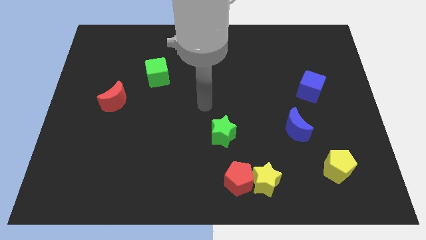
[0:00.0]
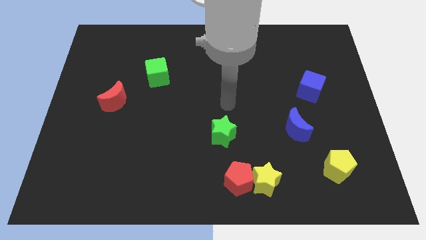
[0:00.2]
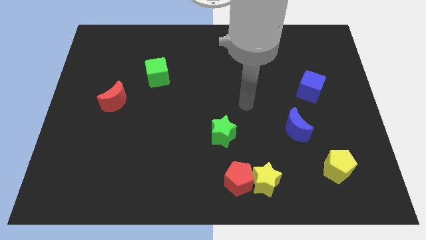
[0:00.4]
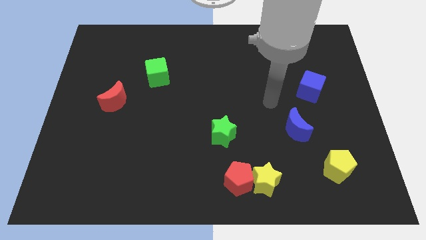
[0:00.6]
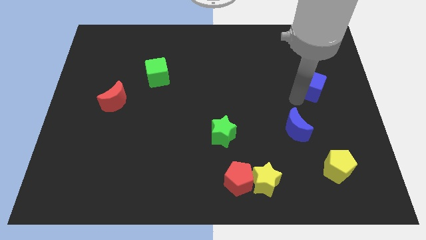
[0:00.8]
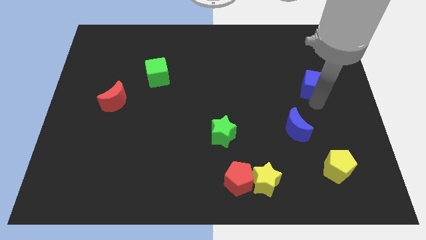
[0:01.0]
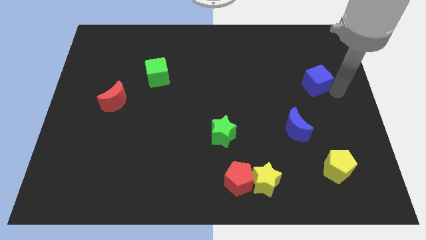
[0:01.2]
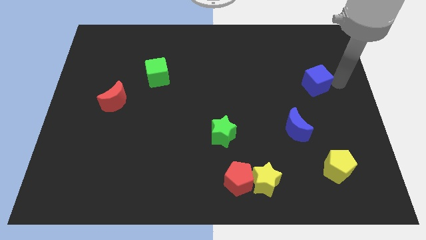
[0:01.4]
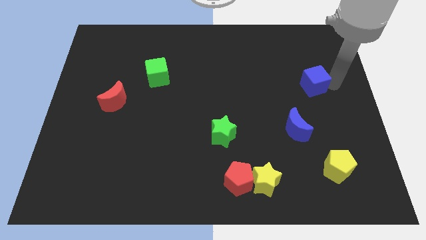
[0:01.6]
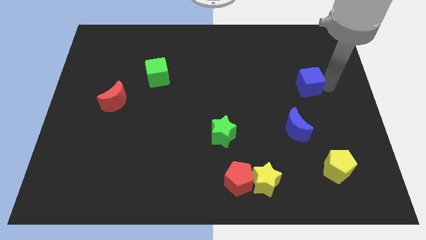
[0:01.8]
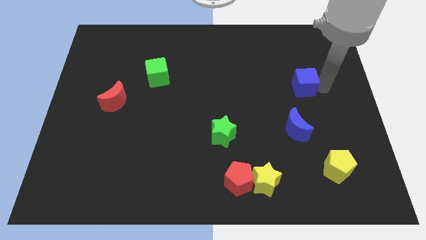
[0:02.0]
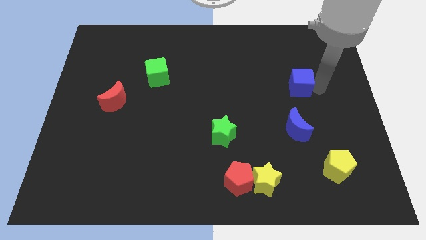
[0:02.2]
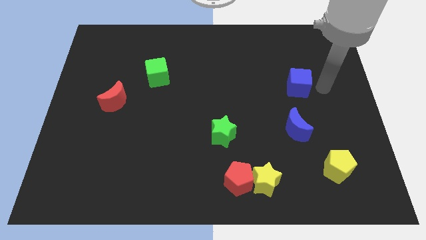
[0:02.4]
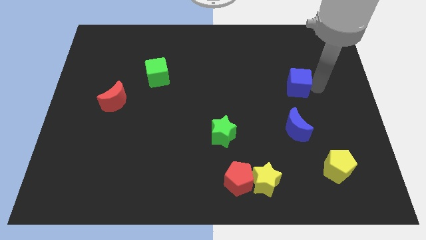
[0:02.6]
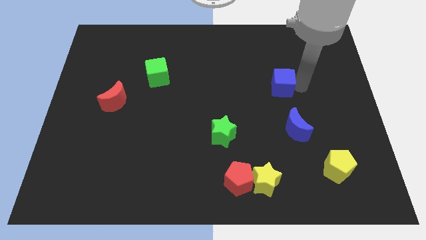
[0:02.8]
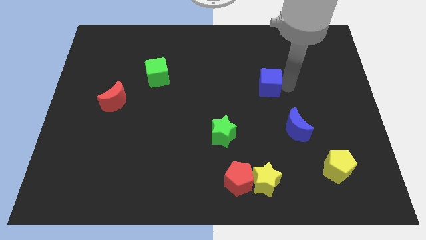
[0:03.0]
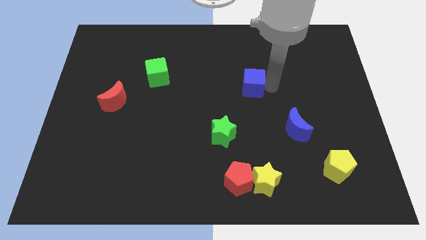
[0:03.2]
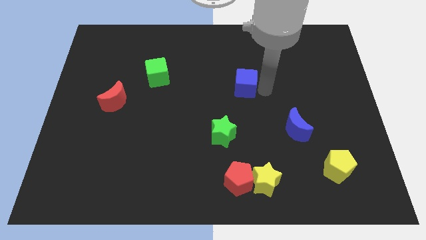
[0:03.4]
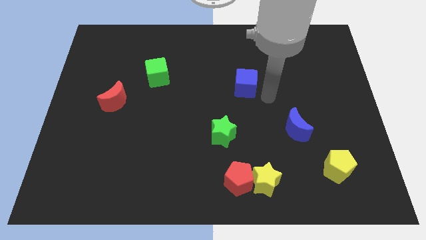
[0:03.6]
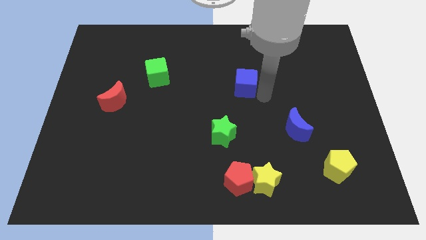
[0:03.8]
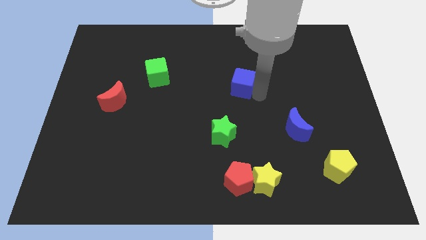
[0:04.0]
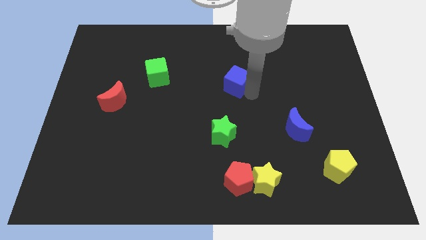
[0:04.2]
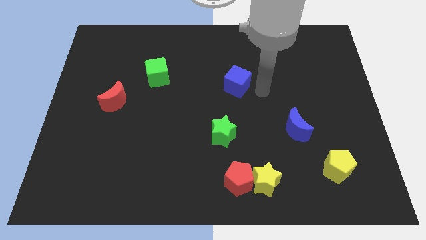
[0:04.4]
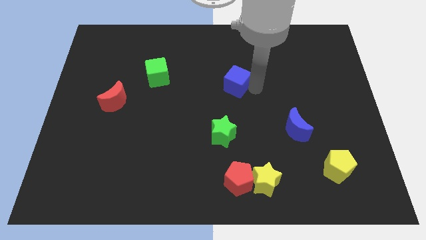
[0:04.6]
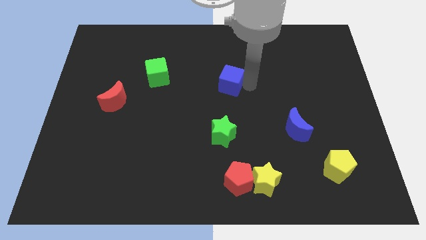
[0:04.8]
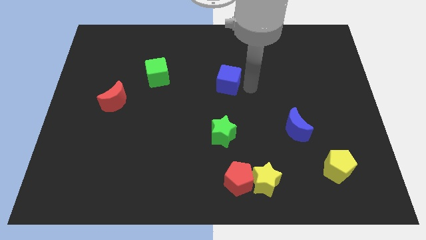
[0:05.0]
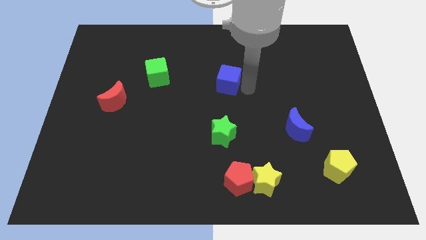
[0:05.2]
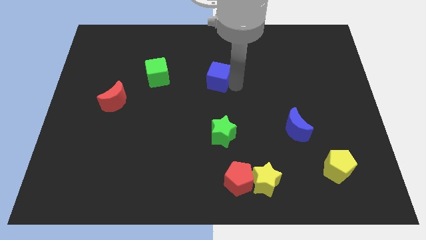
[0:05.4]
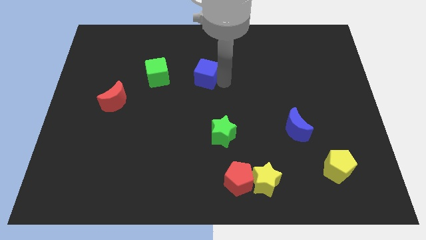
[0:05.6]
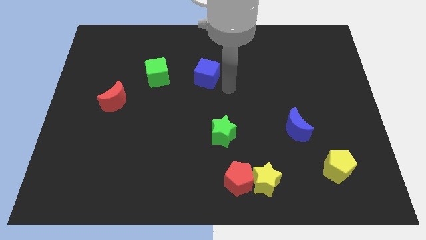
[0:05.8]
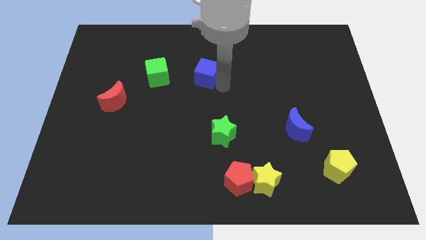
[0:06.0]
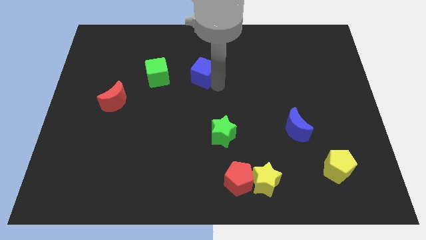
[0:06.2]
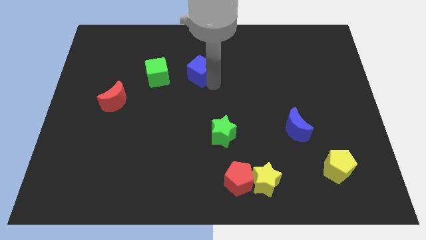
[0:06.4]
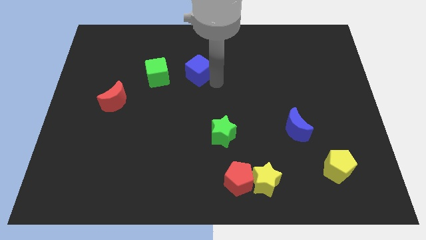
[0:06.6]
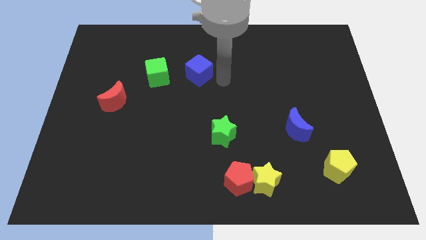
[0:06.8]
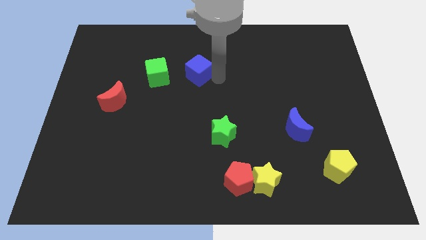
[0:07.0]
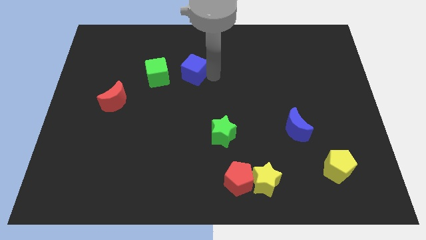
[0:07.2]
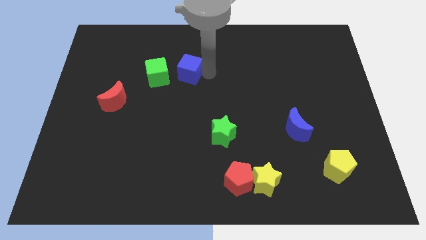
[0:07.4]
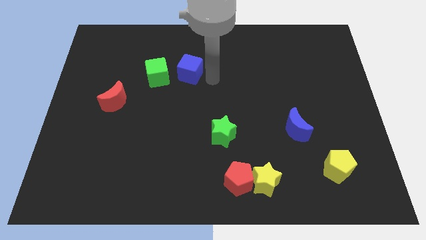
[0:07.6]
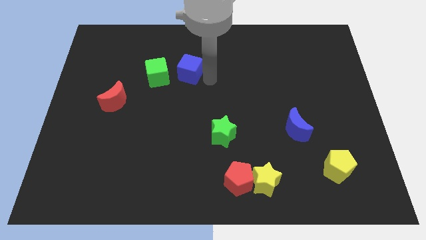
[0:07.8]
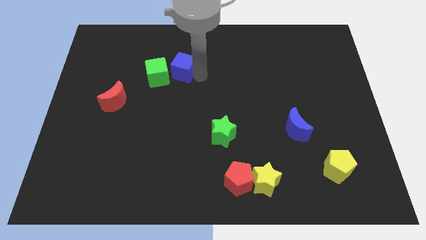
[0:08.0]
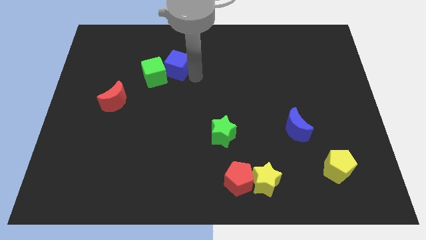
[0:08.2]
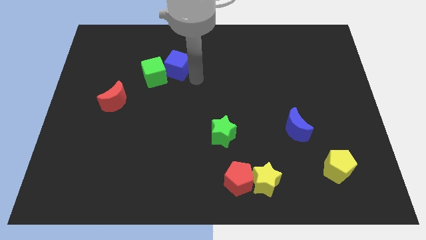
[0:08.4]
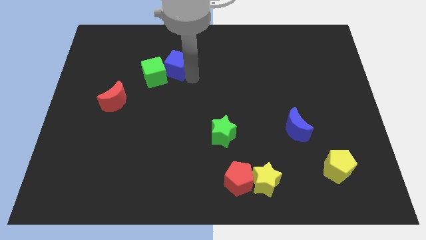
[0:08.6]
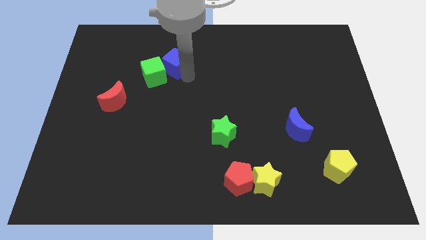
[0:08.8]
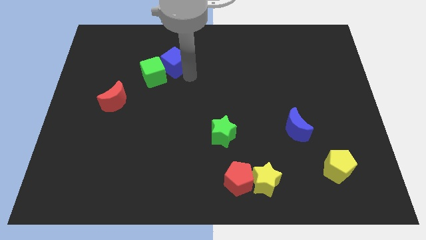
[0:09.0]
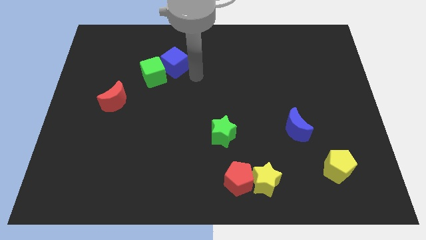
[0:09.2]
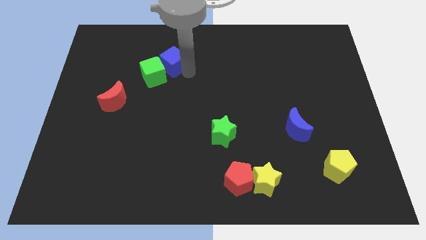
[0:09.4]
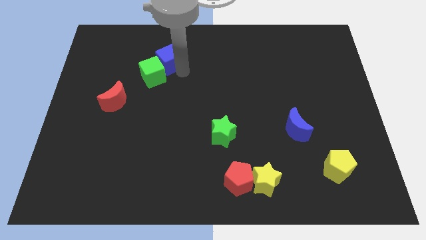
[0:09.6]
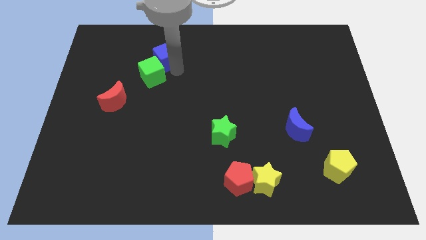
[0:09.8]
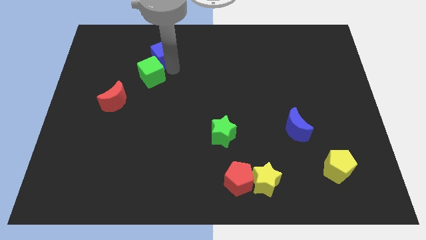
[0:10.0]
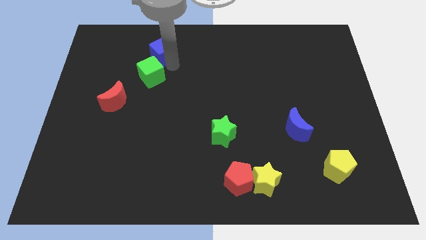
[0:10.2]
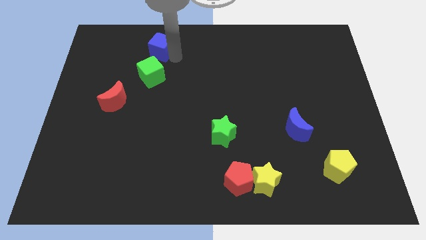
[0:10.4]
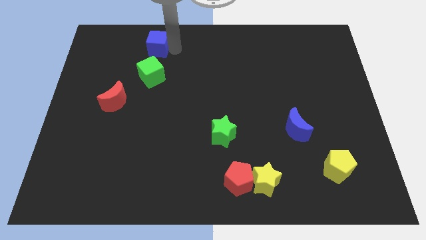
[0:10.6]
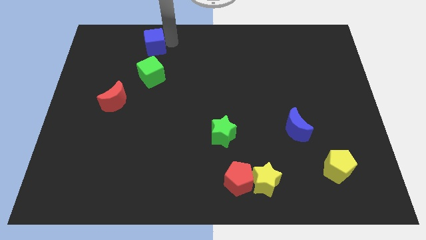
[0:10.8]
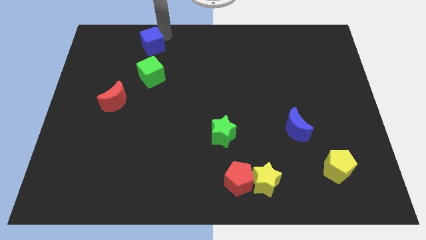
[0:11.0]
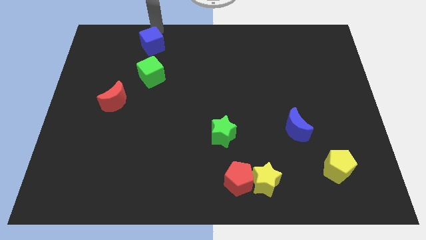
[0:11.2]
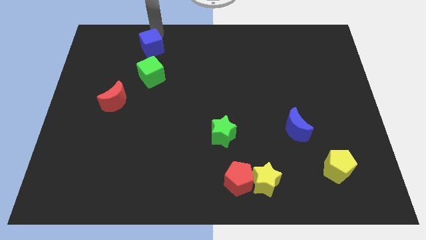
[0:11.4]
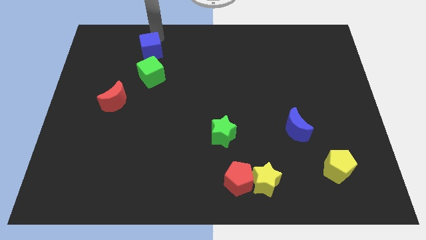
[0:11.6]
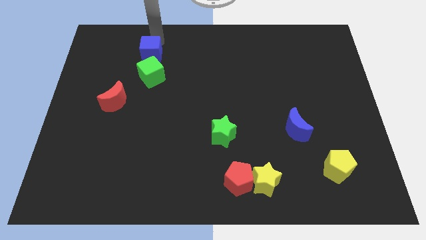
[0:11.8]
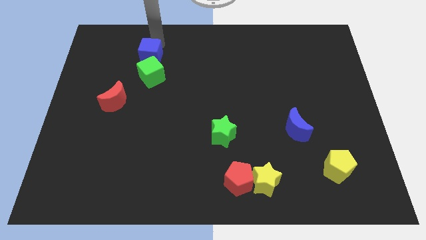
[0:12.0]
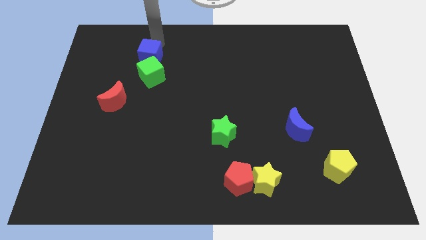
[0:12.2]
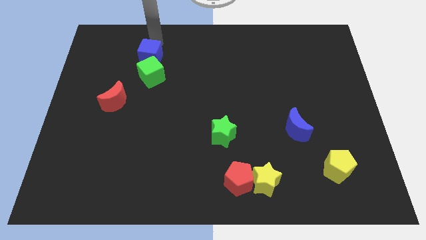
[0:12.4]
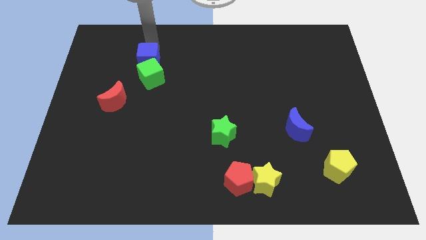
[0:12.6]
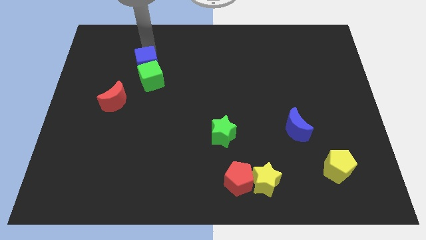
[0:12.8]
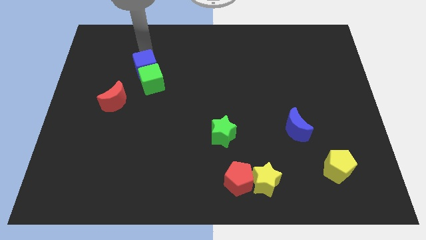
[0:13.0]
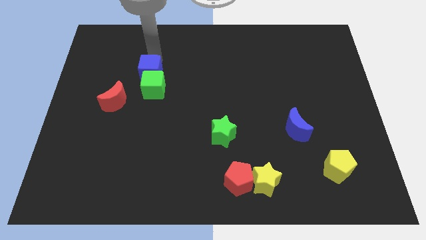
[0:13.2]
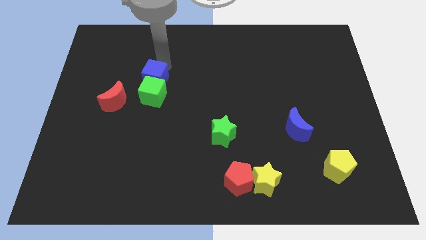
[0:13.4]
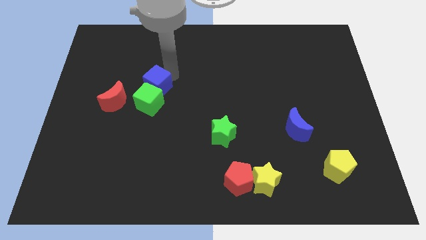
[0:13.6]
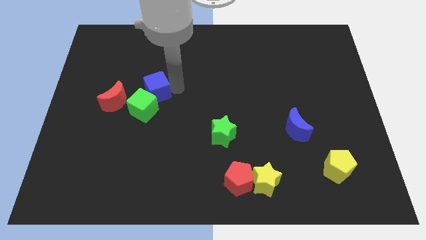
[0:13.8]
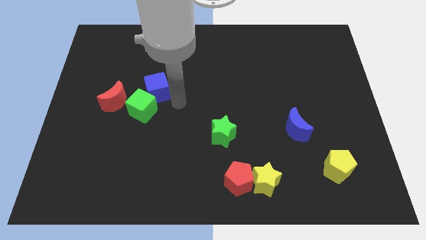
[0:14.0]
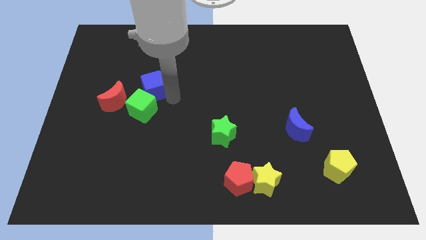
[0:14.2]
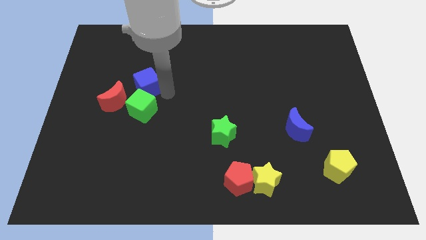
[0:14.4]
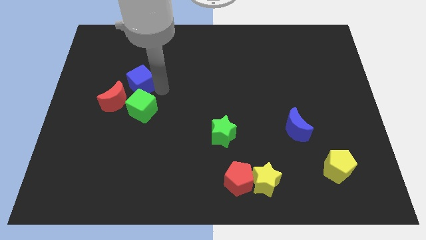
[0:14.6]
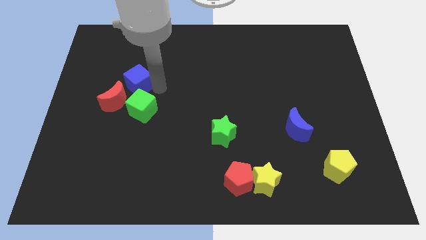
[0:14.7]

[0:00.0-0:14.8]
put the blue cube to the top side of the red moon

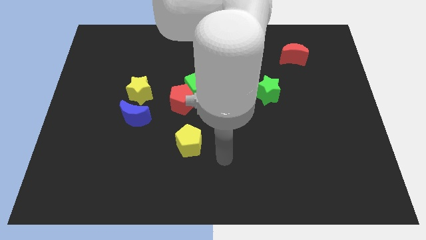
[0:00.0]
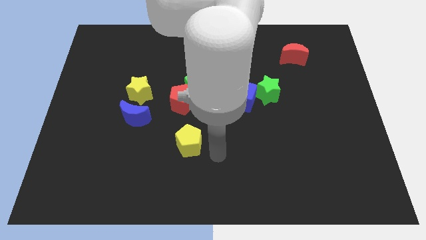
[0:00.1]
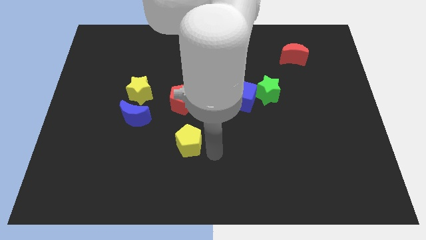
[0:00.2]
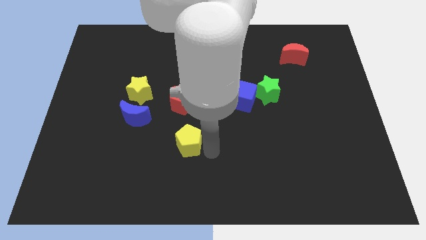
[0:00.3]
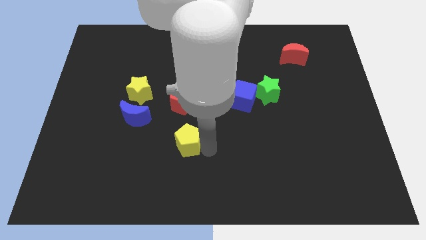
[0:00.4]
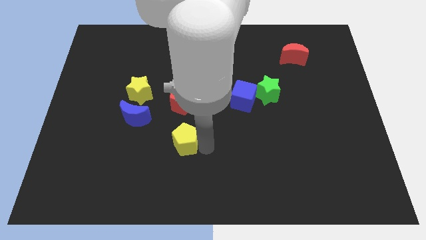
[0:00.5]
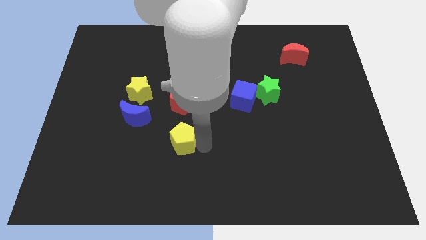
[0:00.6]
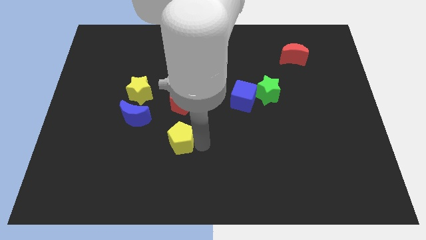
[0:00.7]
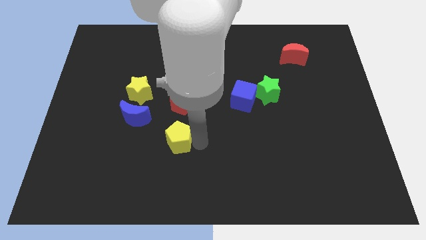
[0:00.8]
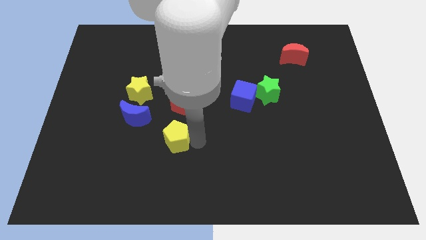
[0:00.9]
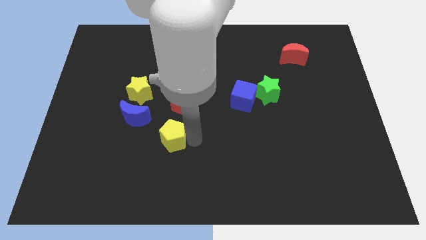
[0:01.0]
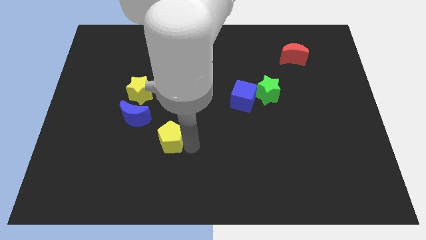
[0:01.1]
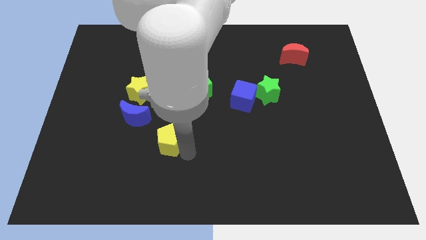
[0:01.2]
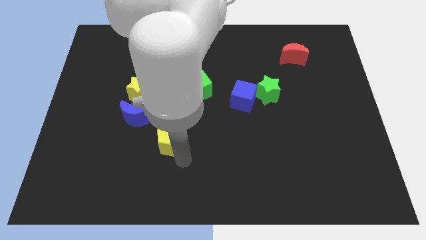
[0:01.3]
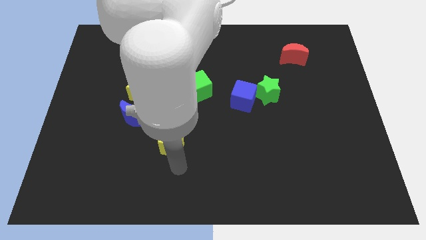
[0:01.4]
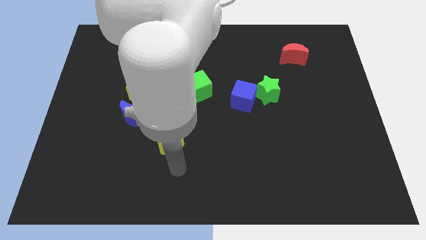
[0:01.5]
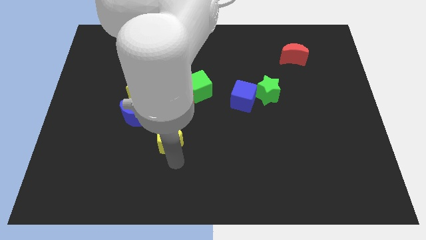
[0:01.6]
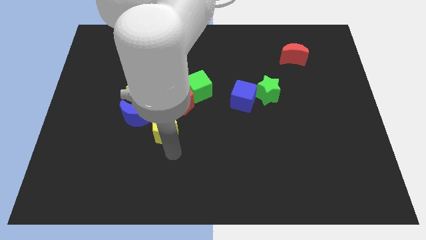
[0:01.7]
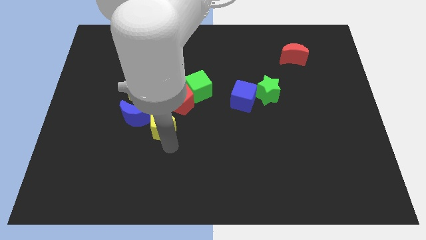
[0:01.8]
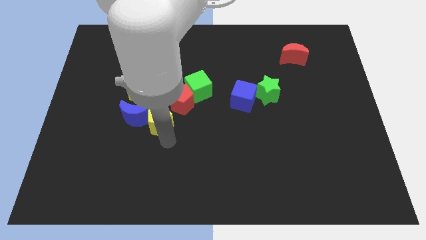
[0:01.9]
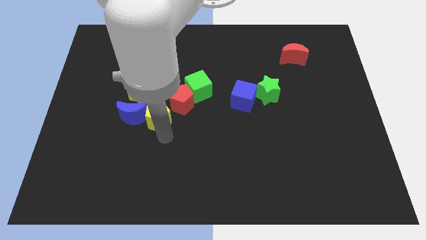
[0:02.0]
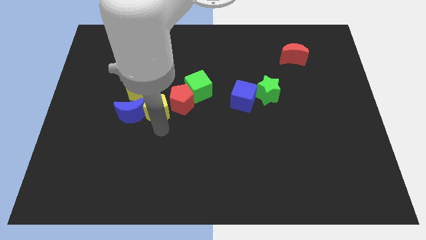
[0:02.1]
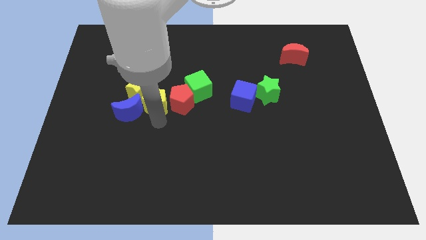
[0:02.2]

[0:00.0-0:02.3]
put the yellow pentagon to the top left of the red pentagon
